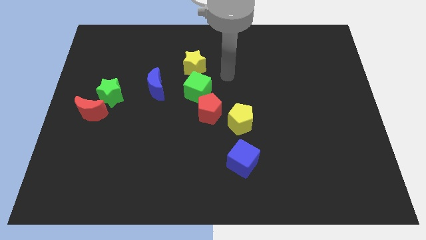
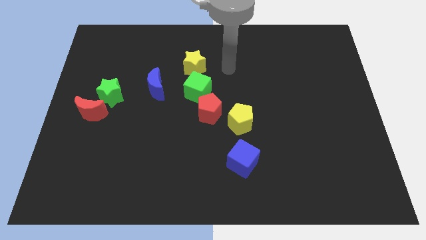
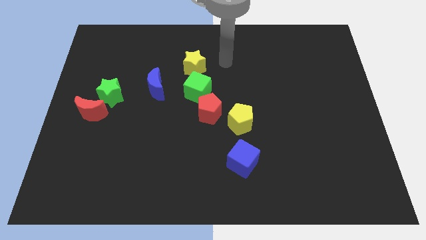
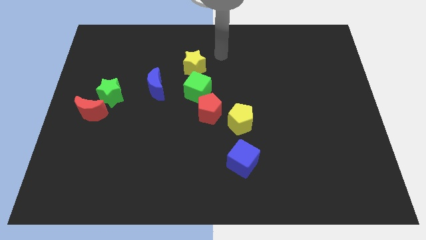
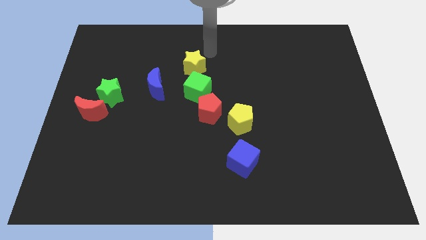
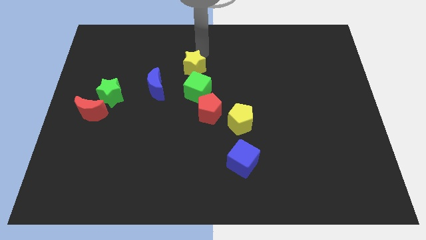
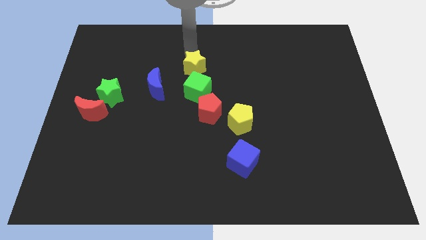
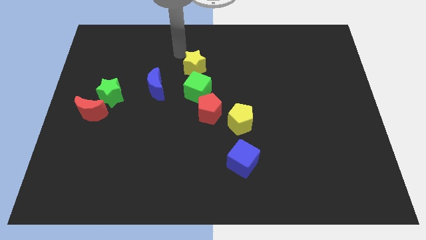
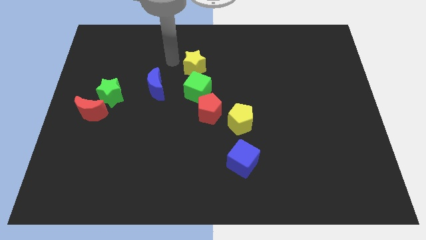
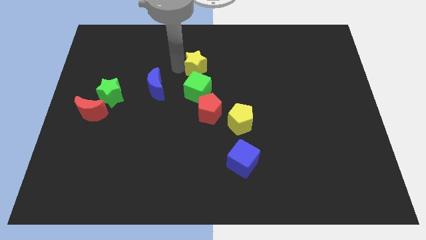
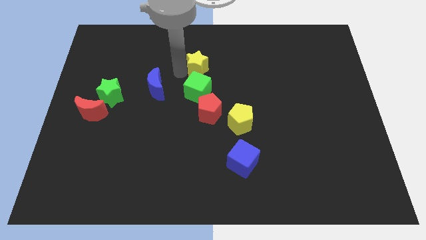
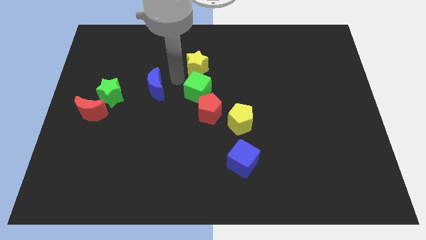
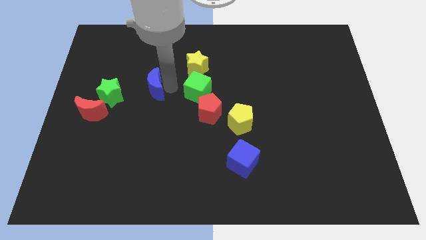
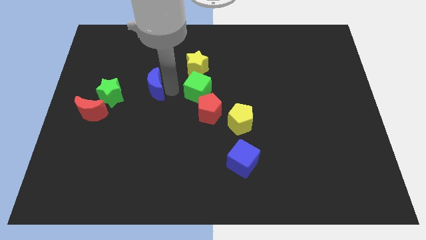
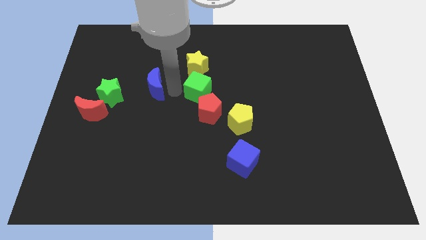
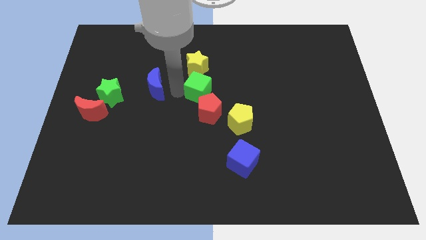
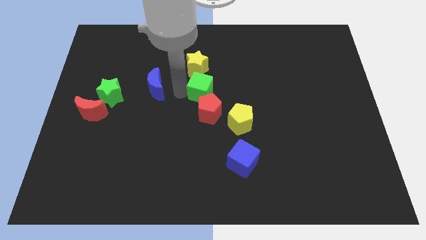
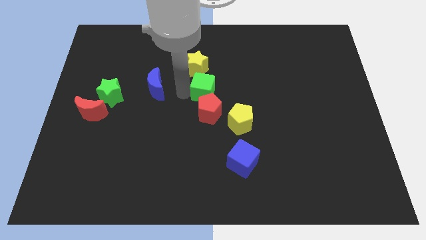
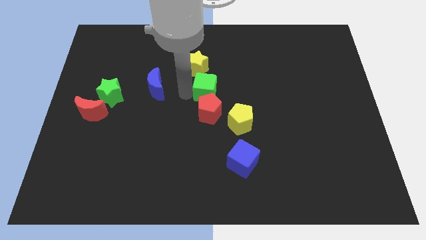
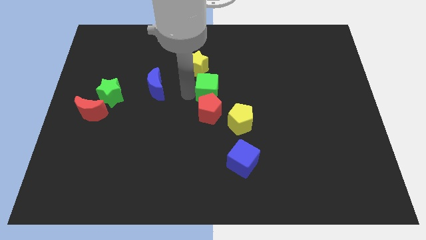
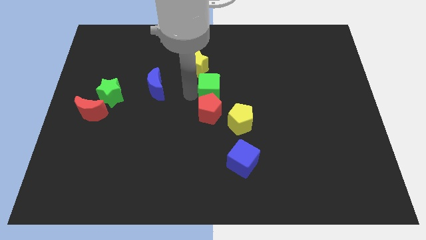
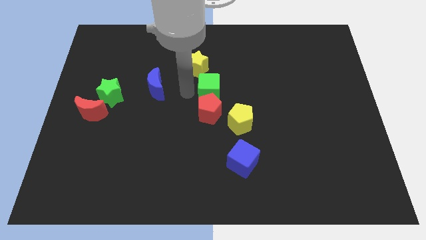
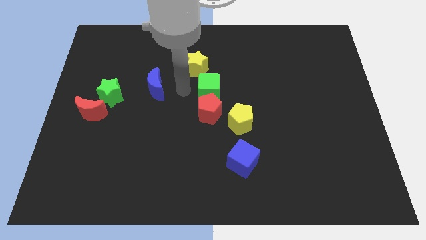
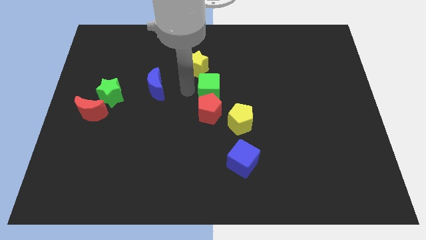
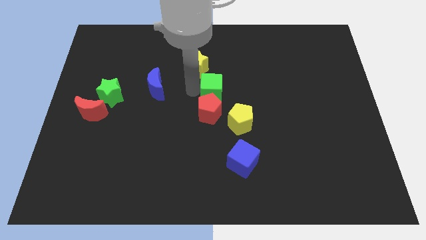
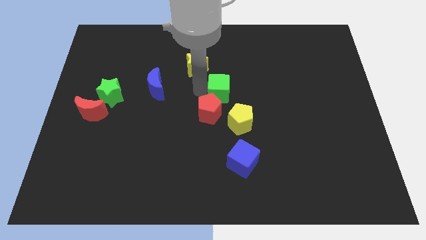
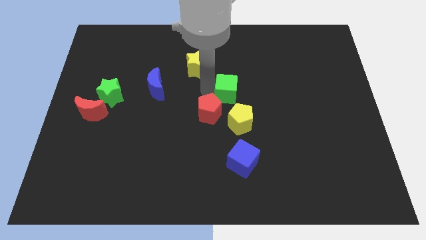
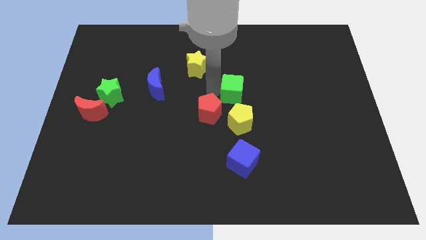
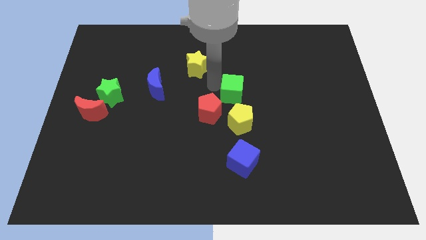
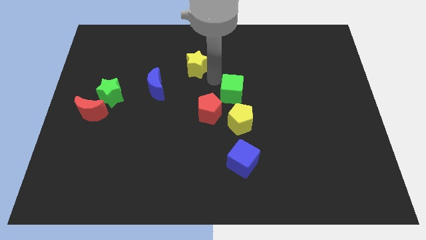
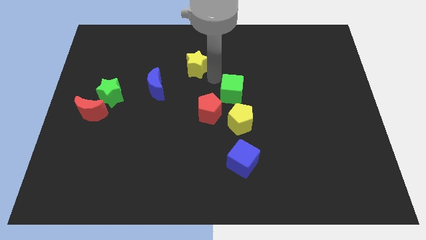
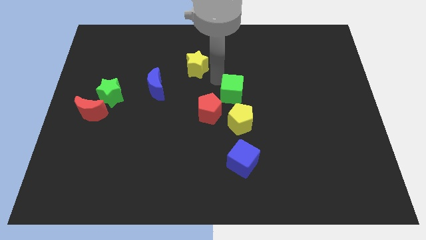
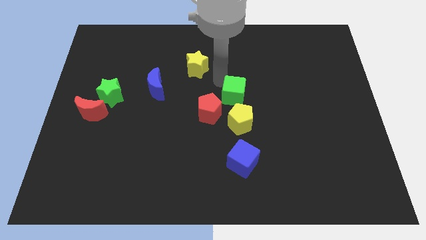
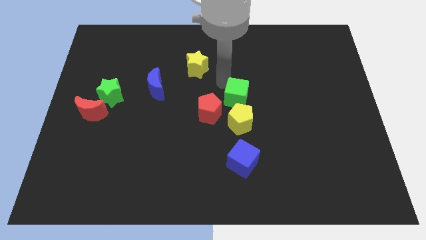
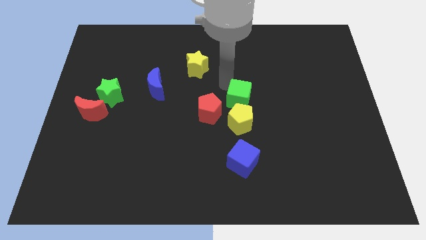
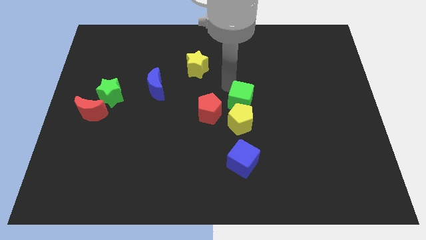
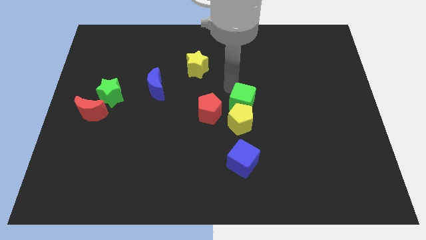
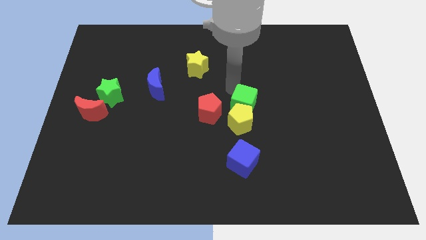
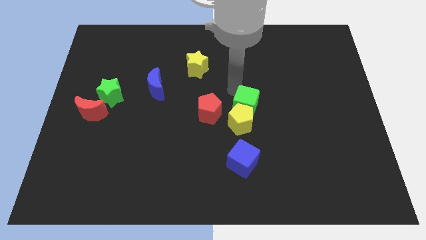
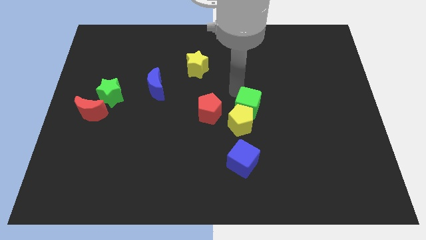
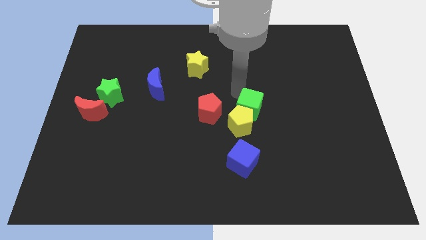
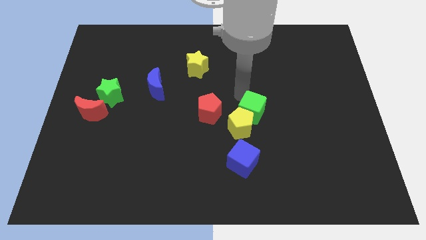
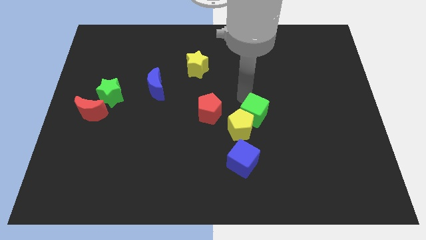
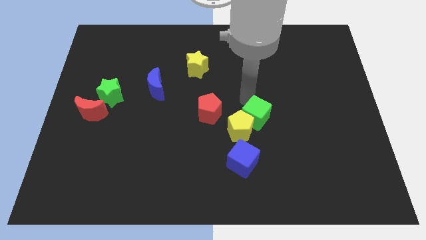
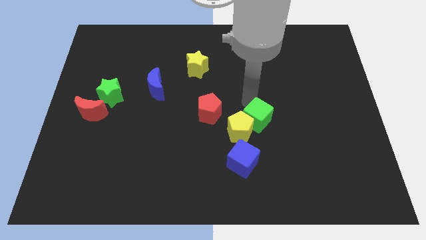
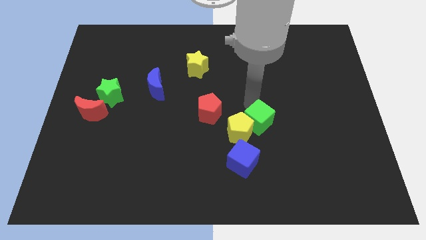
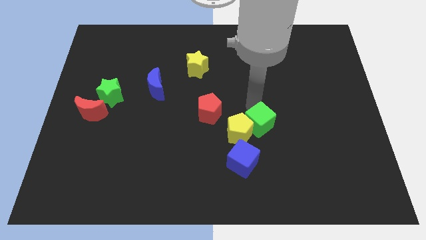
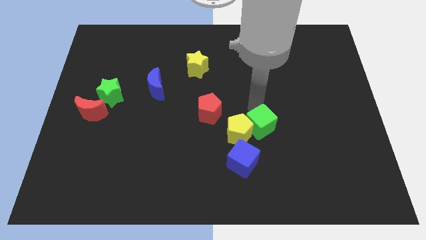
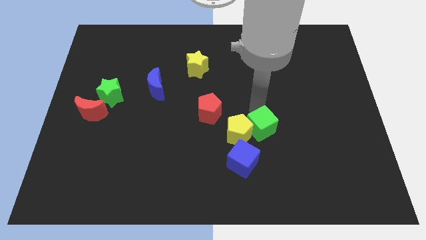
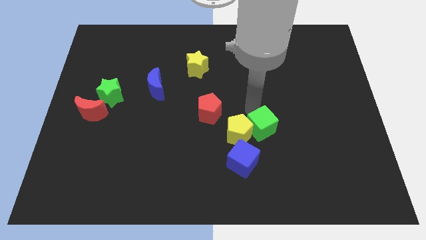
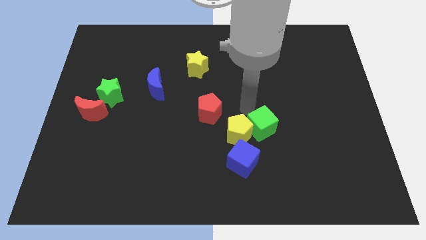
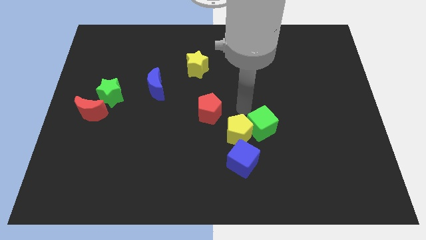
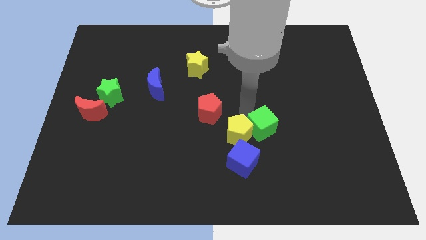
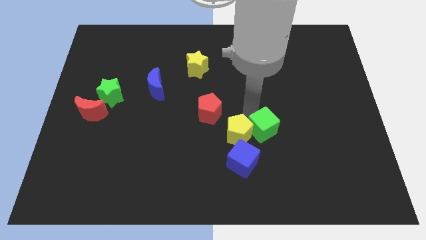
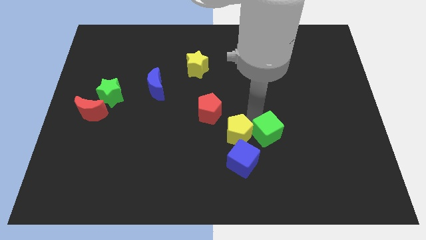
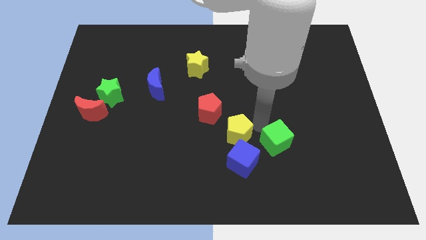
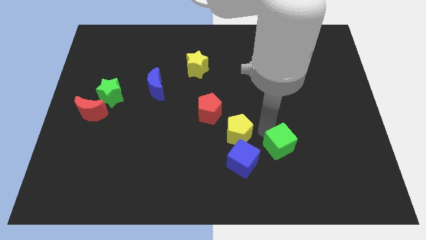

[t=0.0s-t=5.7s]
put the green cube to the right side of the blue cube
